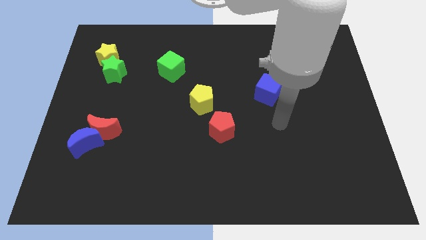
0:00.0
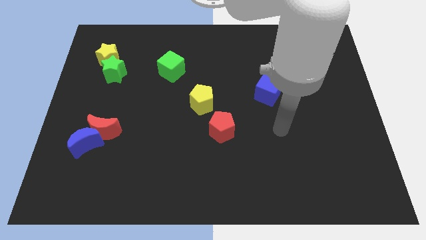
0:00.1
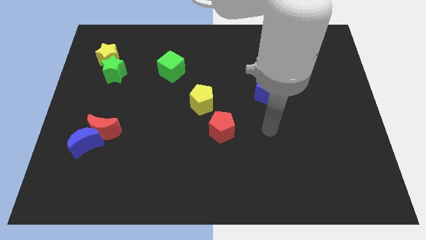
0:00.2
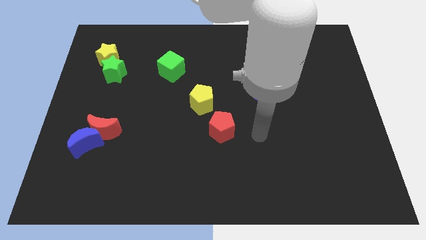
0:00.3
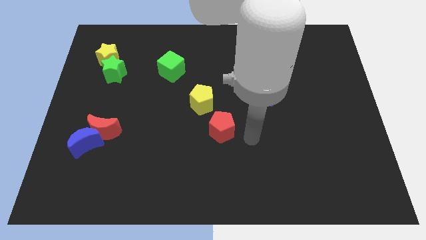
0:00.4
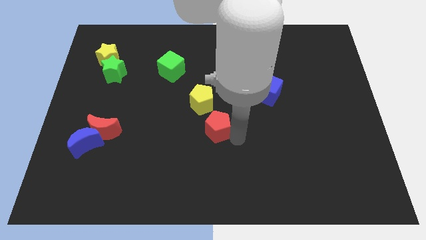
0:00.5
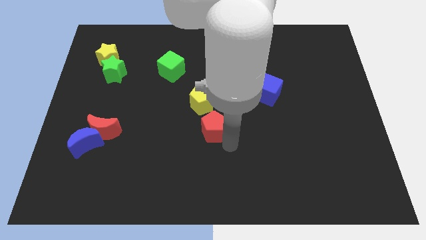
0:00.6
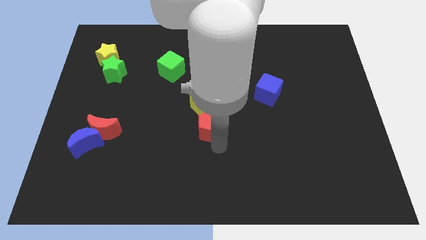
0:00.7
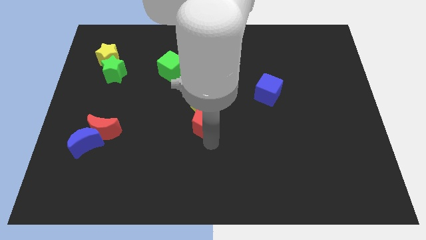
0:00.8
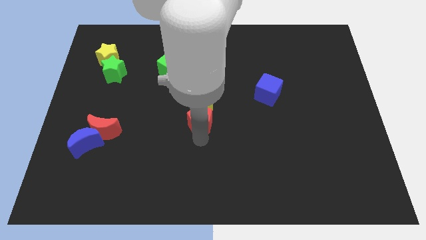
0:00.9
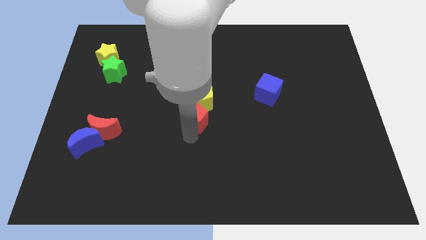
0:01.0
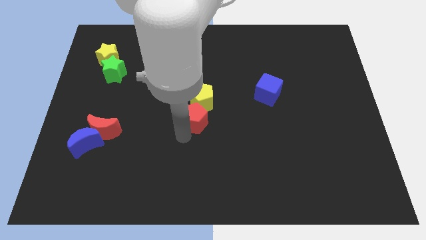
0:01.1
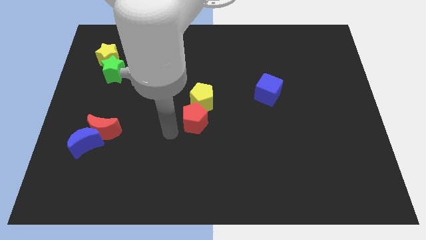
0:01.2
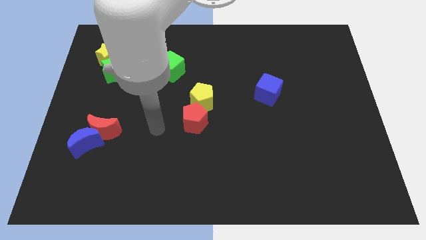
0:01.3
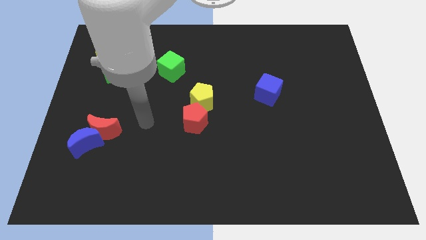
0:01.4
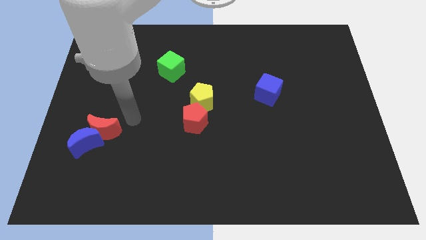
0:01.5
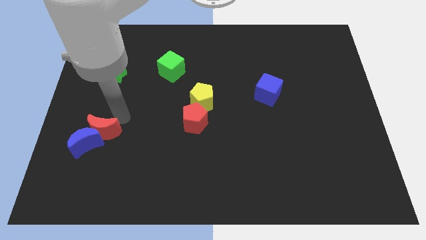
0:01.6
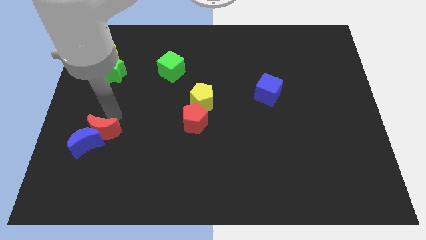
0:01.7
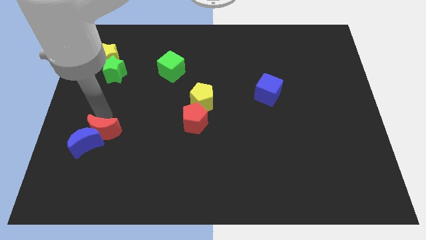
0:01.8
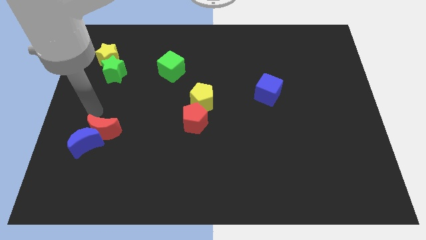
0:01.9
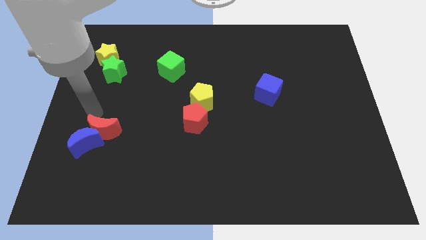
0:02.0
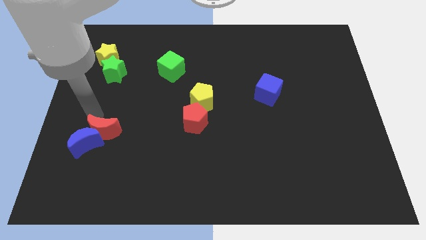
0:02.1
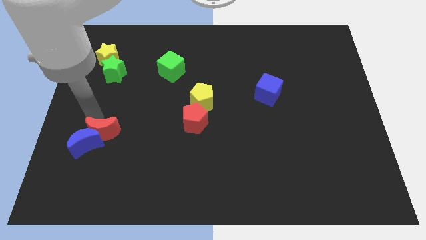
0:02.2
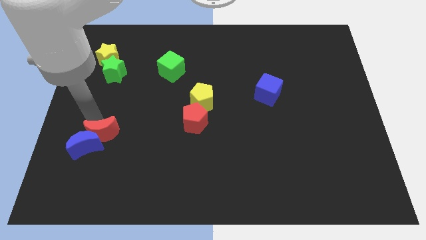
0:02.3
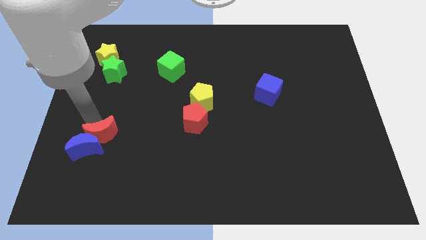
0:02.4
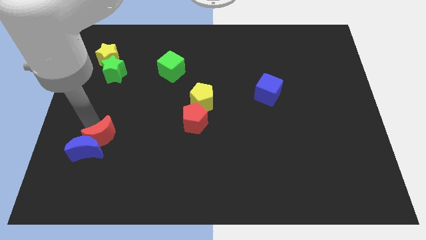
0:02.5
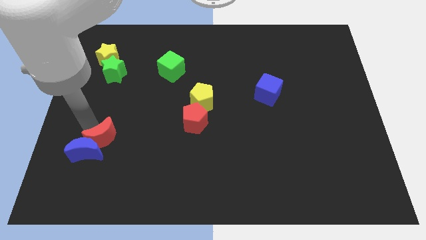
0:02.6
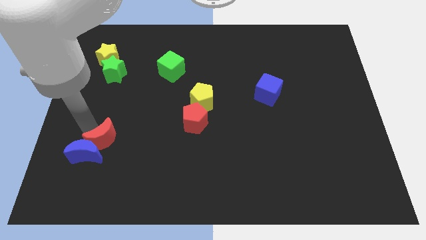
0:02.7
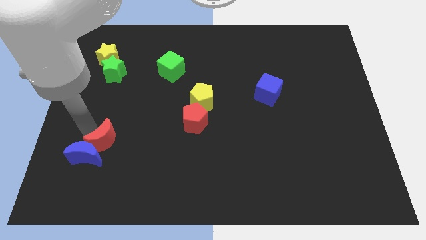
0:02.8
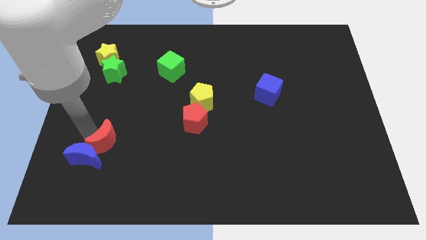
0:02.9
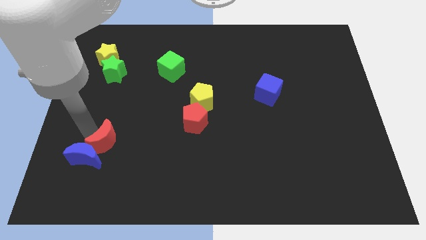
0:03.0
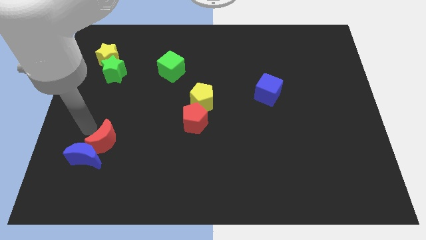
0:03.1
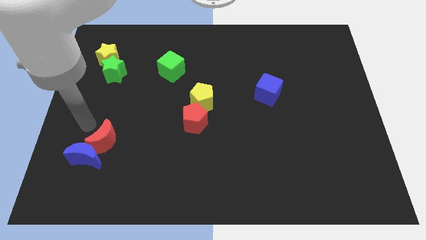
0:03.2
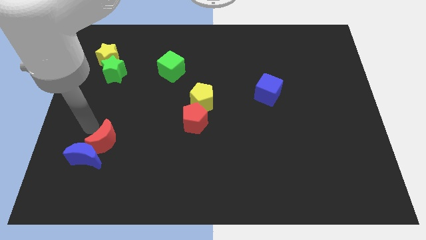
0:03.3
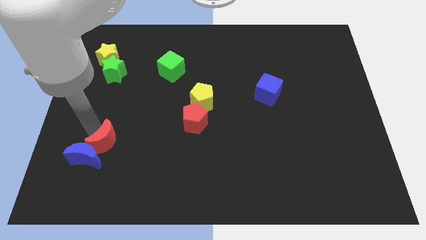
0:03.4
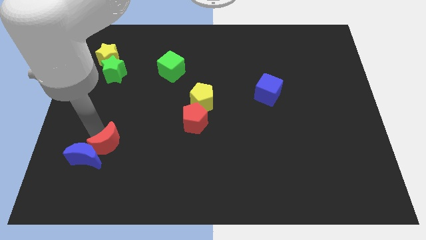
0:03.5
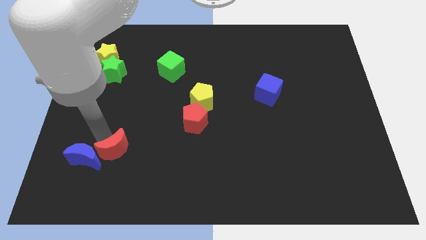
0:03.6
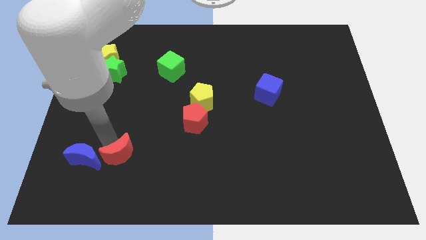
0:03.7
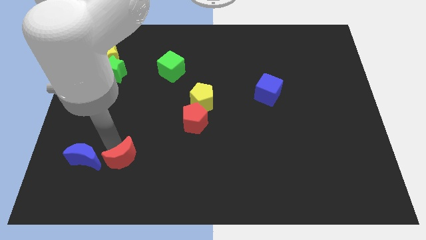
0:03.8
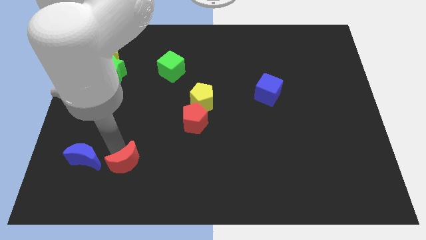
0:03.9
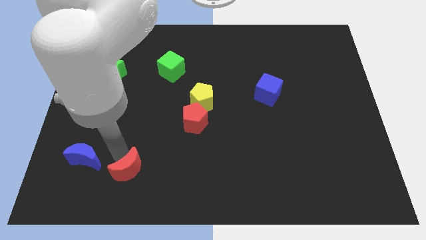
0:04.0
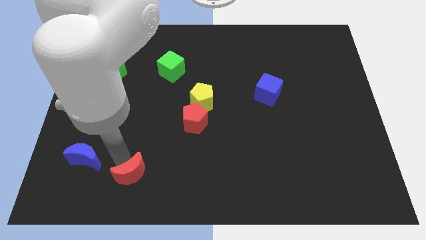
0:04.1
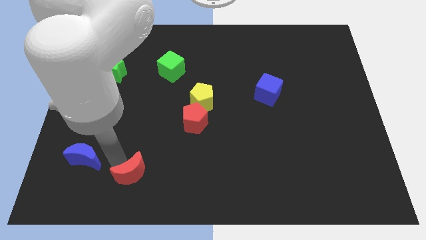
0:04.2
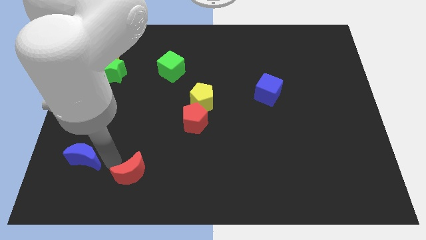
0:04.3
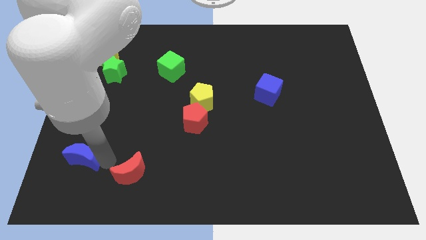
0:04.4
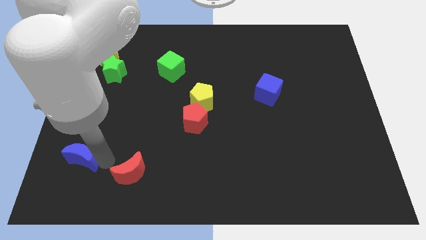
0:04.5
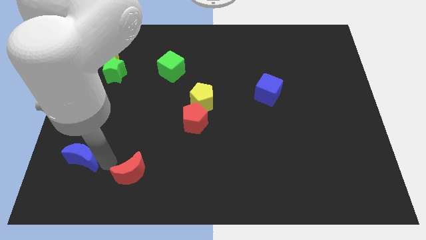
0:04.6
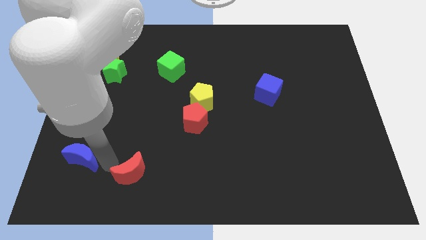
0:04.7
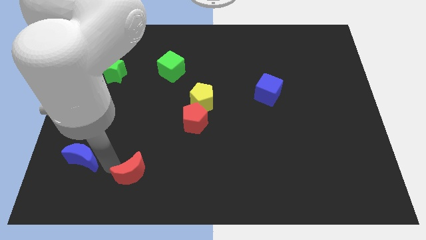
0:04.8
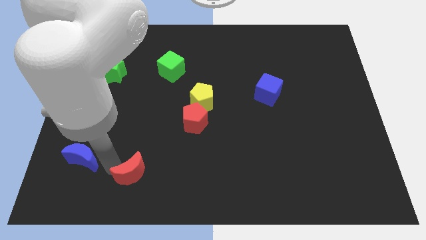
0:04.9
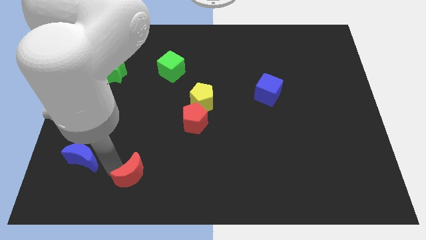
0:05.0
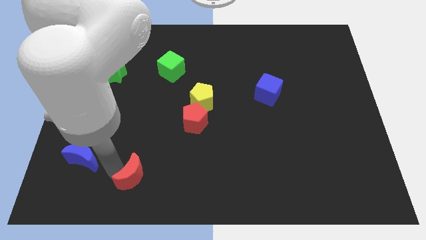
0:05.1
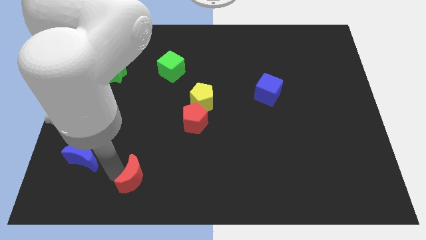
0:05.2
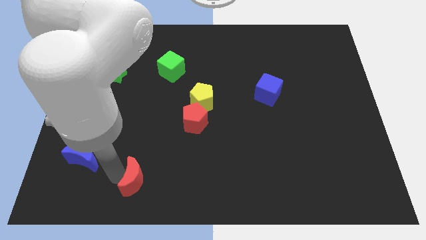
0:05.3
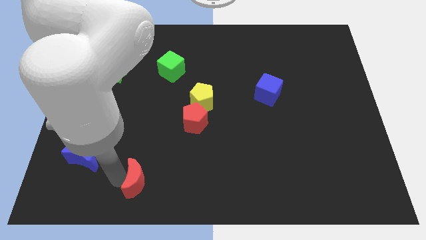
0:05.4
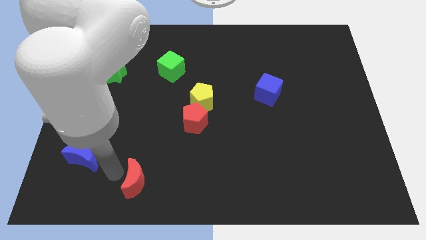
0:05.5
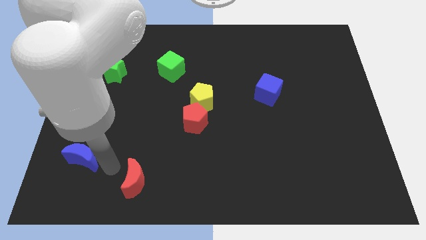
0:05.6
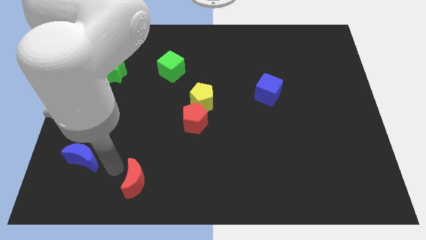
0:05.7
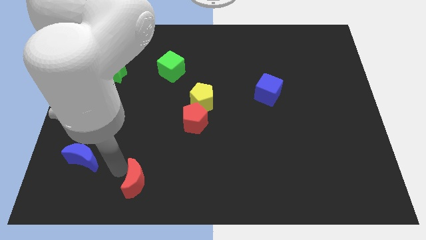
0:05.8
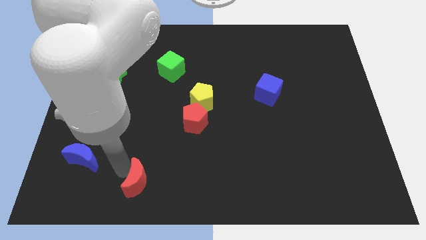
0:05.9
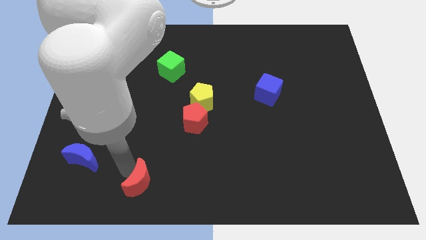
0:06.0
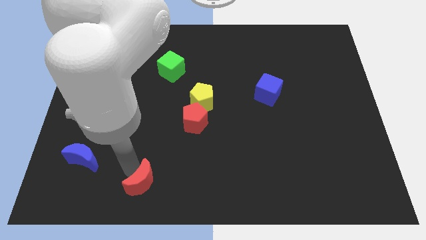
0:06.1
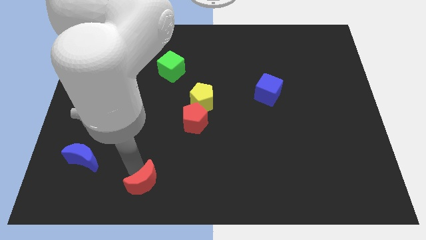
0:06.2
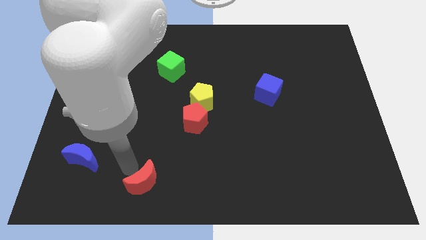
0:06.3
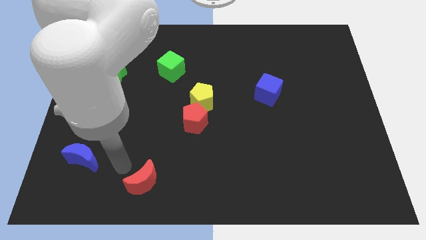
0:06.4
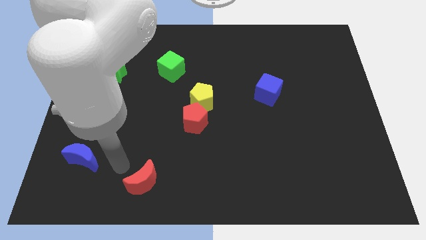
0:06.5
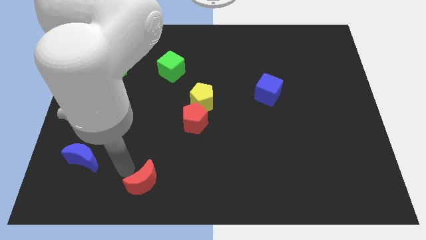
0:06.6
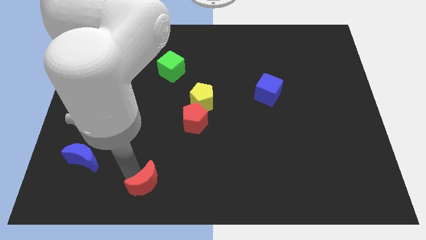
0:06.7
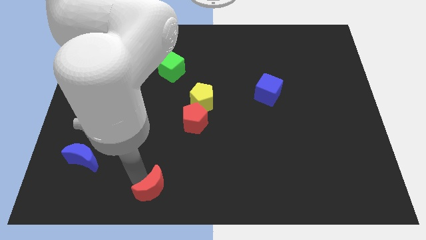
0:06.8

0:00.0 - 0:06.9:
slide the red moon to the bottom side

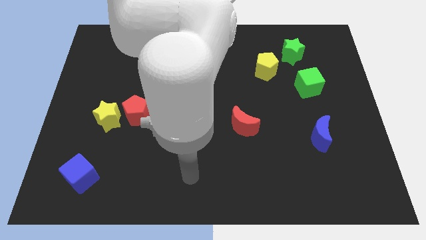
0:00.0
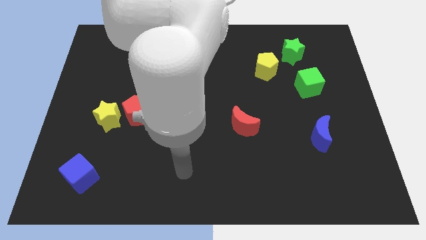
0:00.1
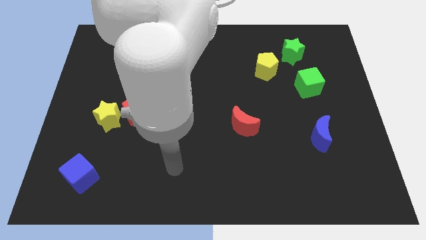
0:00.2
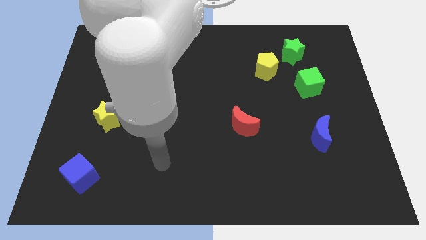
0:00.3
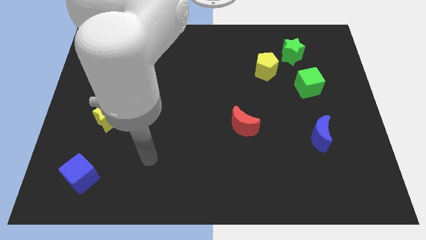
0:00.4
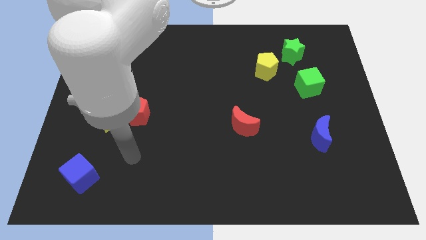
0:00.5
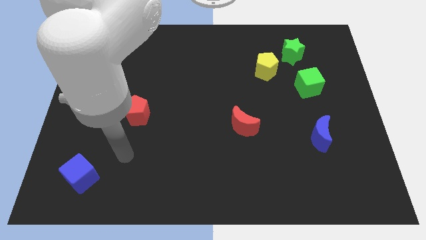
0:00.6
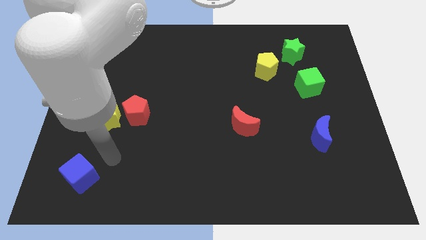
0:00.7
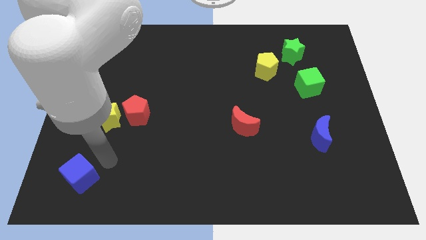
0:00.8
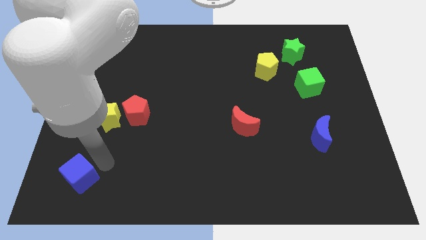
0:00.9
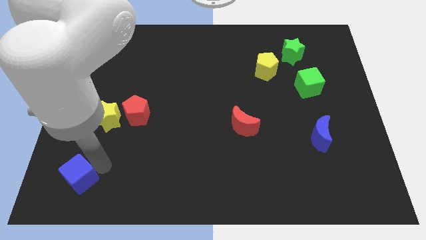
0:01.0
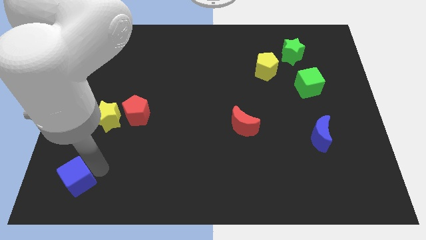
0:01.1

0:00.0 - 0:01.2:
move the blue cube to the lower left corner
